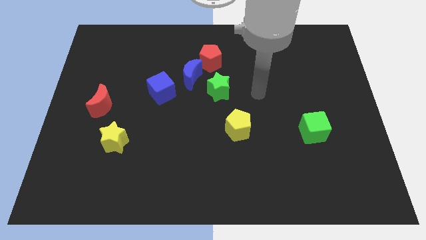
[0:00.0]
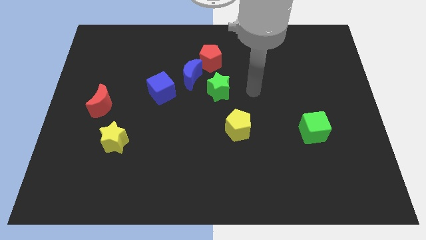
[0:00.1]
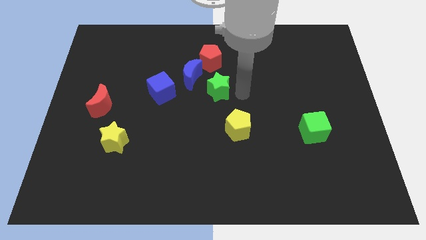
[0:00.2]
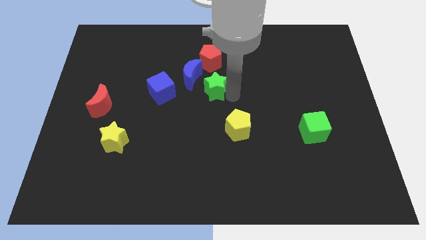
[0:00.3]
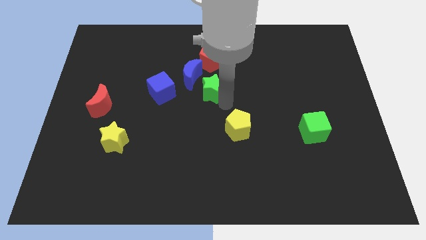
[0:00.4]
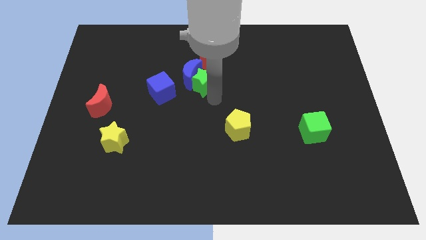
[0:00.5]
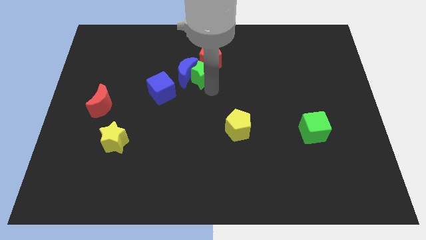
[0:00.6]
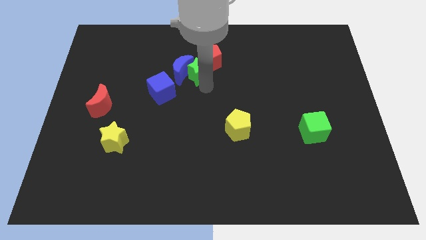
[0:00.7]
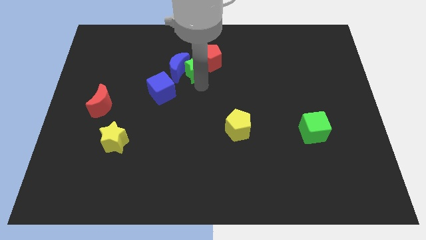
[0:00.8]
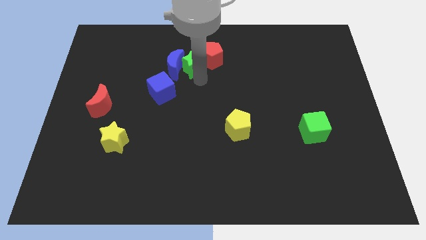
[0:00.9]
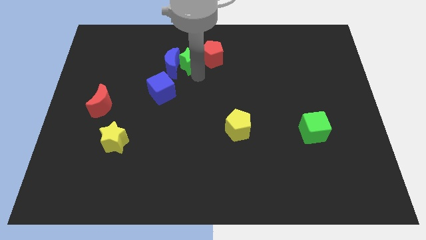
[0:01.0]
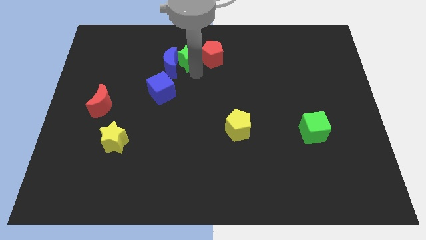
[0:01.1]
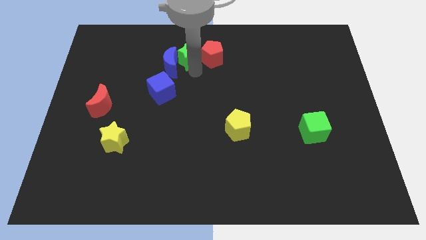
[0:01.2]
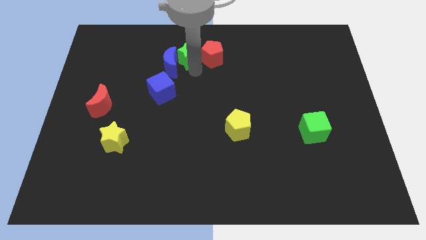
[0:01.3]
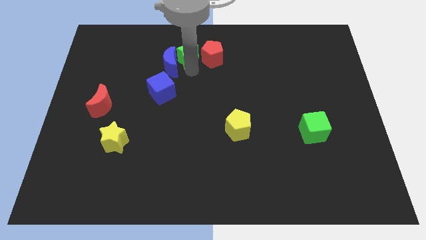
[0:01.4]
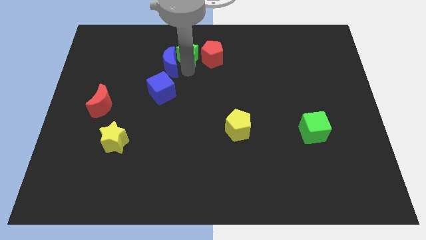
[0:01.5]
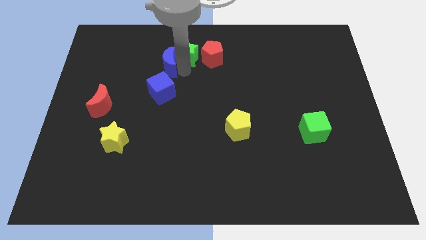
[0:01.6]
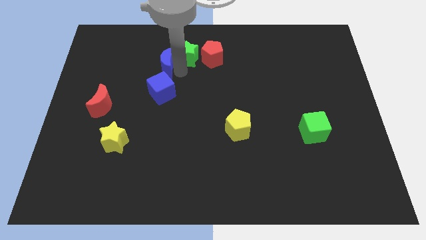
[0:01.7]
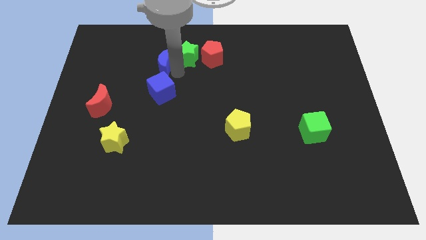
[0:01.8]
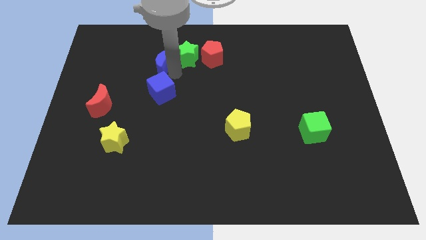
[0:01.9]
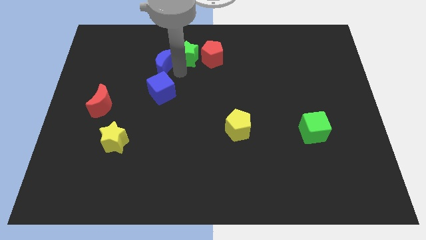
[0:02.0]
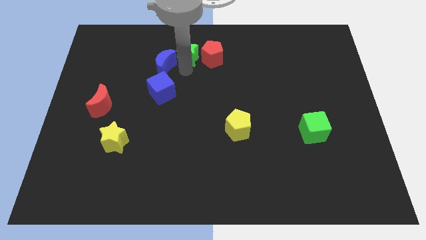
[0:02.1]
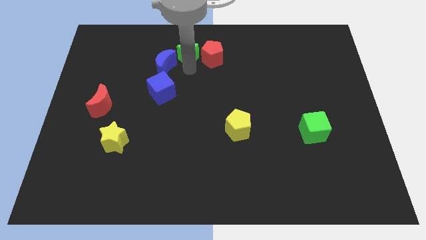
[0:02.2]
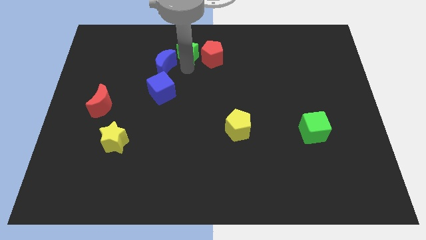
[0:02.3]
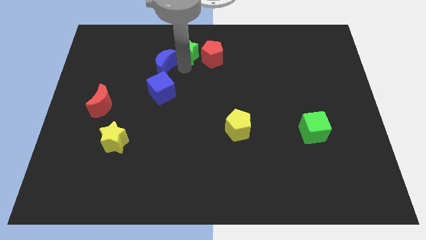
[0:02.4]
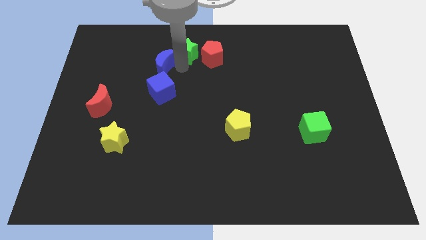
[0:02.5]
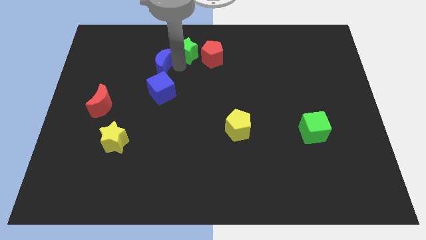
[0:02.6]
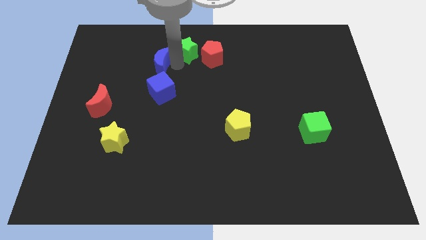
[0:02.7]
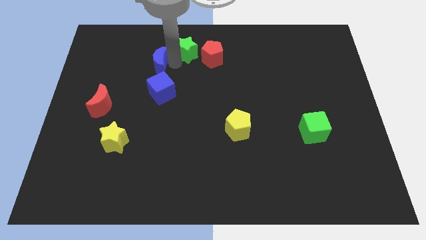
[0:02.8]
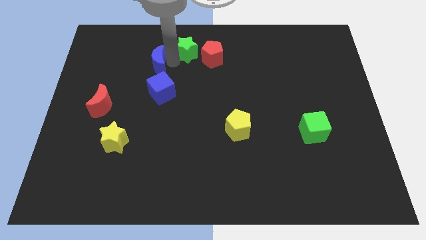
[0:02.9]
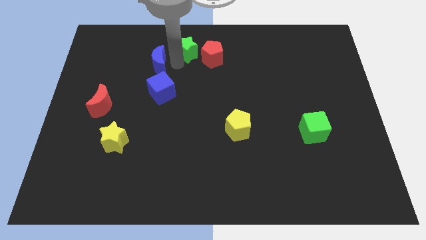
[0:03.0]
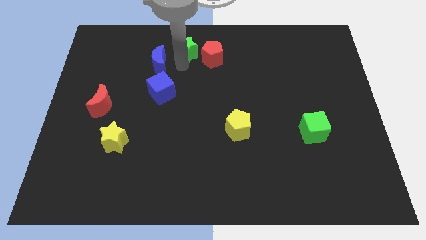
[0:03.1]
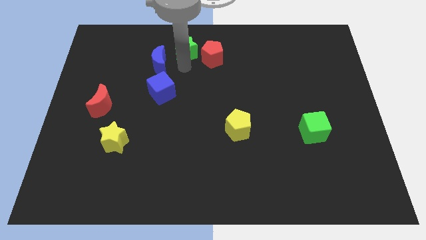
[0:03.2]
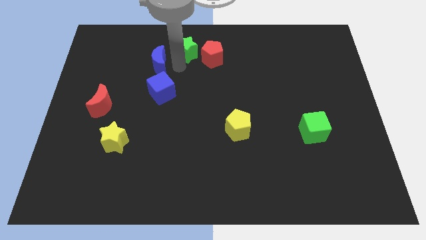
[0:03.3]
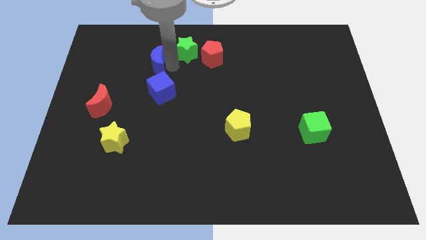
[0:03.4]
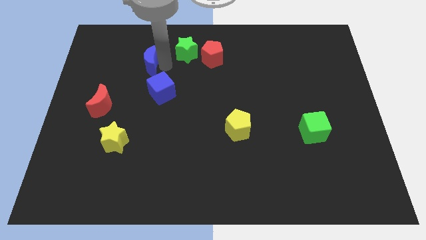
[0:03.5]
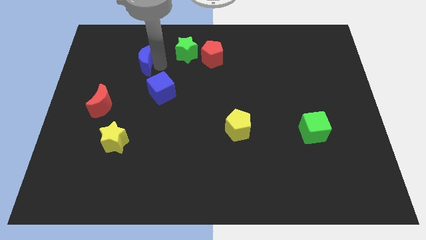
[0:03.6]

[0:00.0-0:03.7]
move the blue moon away from the group

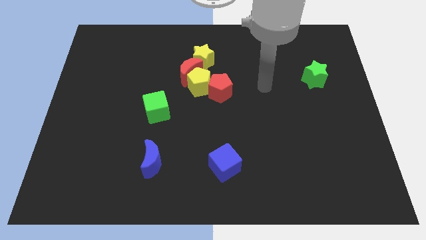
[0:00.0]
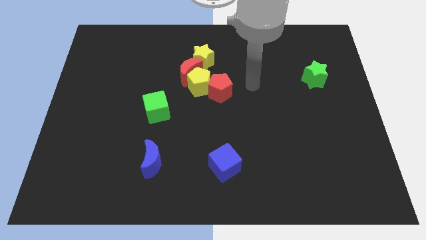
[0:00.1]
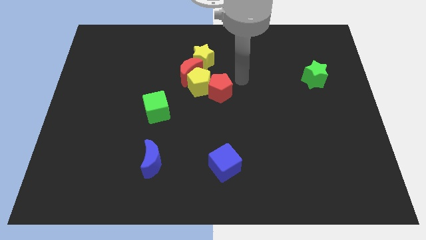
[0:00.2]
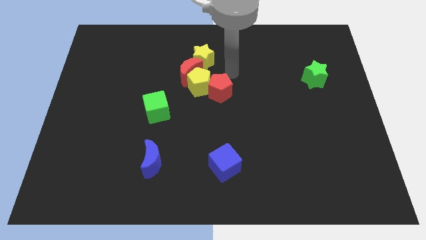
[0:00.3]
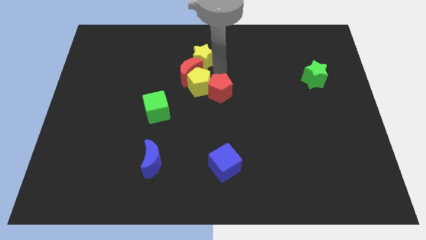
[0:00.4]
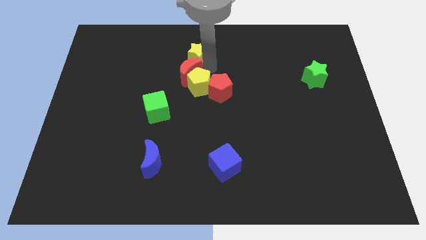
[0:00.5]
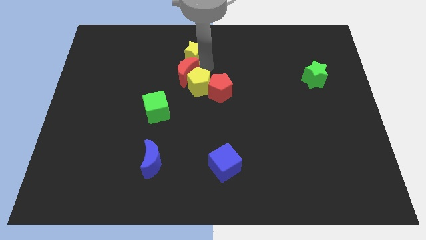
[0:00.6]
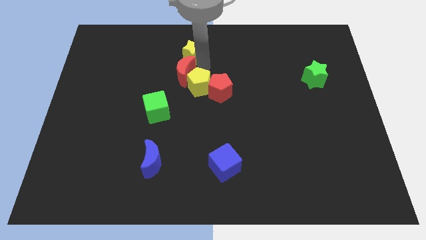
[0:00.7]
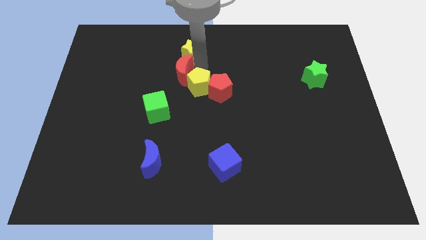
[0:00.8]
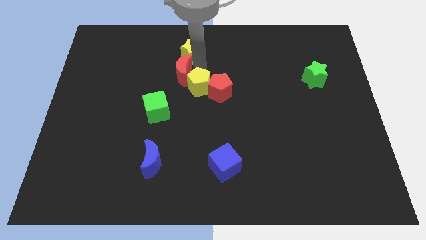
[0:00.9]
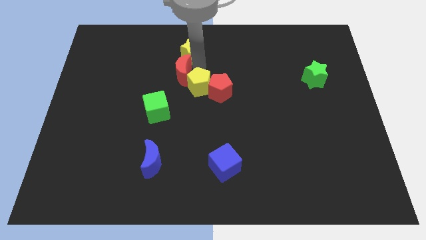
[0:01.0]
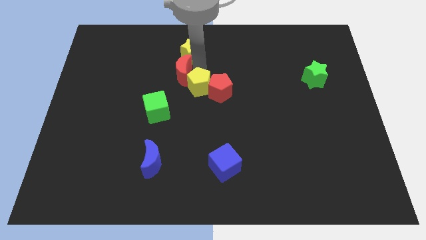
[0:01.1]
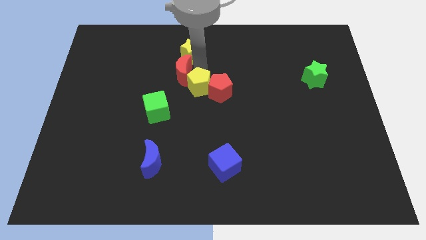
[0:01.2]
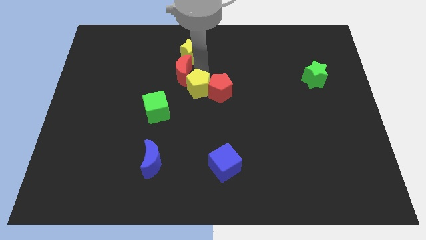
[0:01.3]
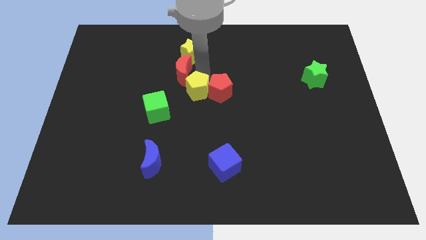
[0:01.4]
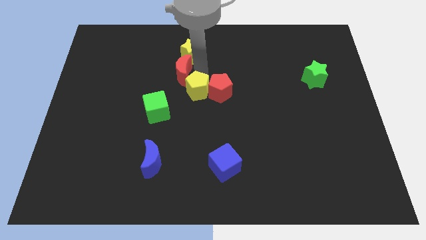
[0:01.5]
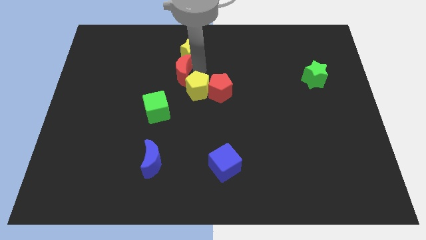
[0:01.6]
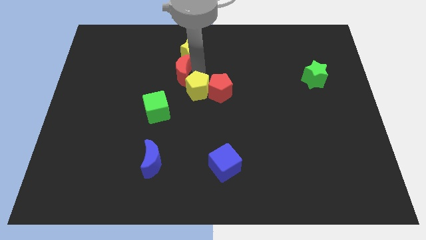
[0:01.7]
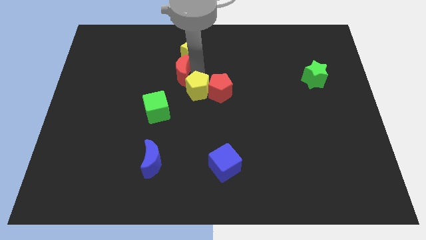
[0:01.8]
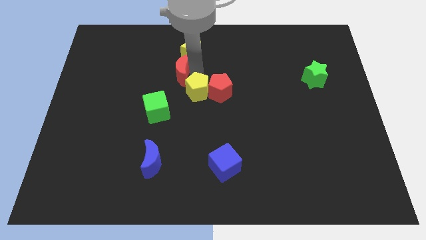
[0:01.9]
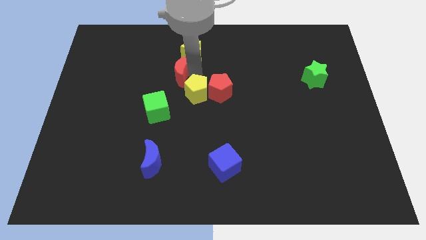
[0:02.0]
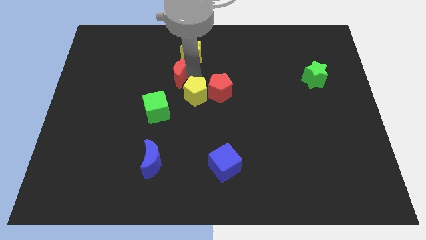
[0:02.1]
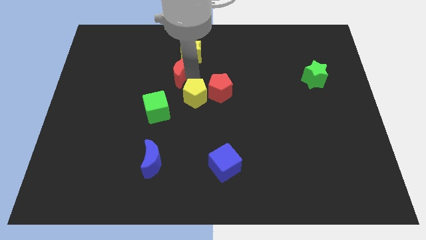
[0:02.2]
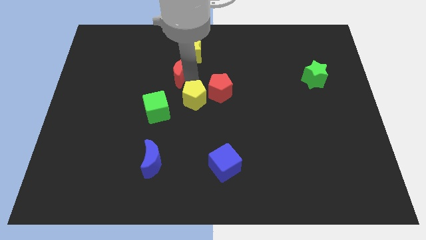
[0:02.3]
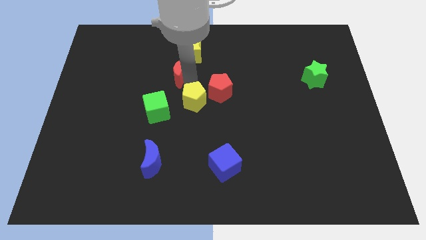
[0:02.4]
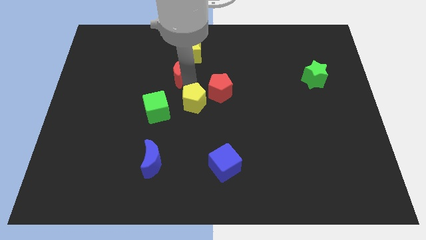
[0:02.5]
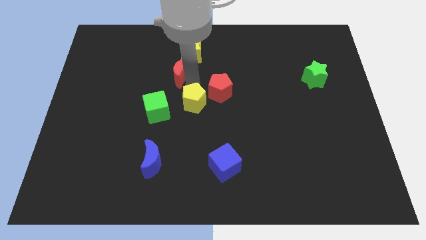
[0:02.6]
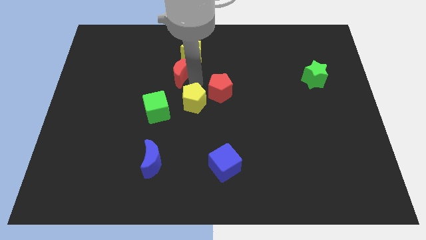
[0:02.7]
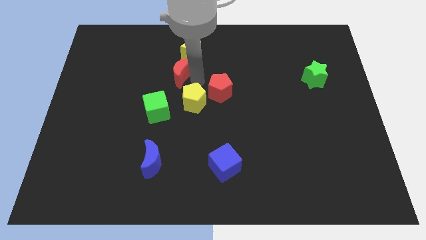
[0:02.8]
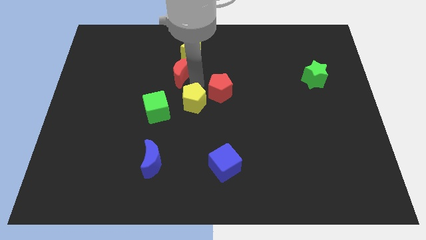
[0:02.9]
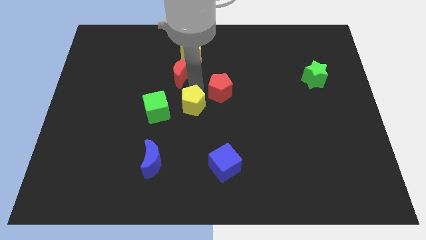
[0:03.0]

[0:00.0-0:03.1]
separate the yellow pentagon from the group

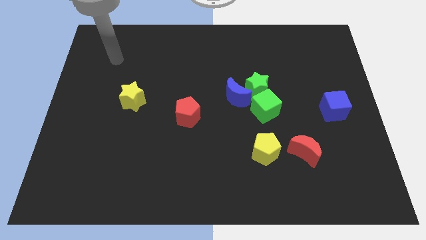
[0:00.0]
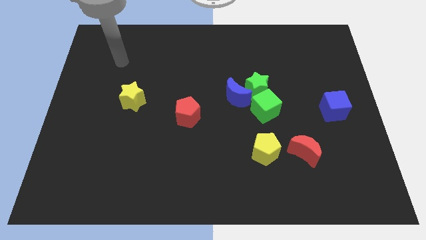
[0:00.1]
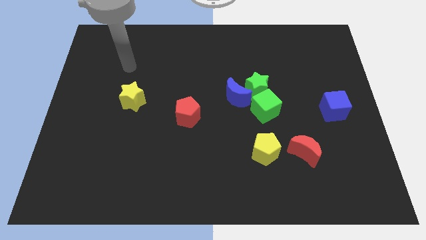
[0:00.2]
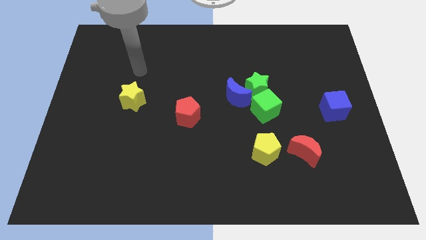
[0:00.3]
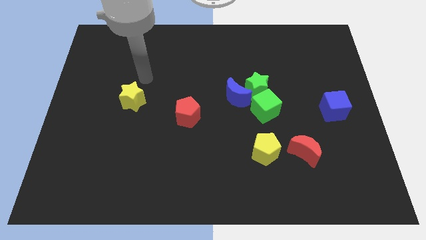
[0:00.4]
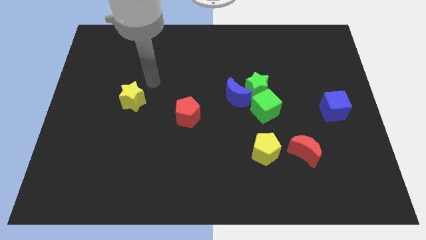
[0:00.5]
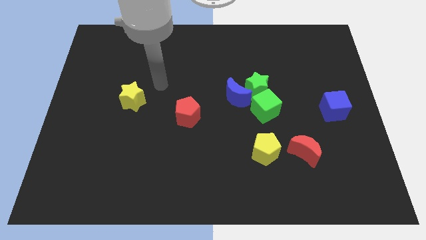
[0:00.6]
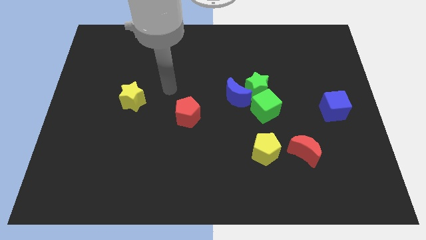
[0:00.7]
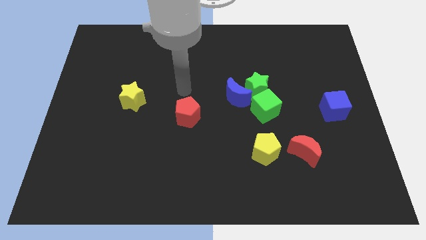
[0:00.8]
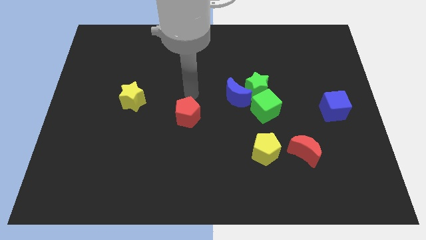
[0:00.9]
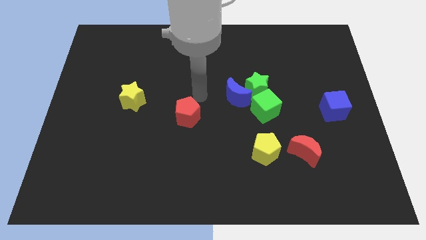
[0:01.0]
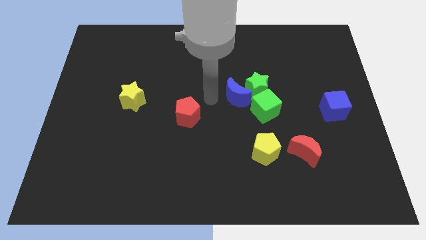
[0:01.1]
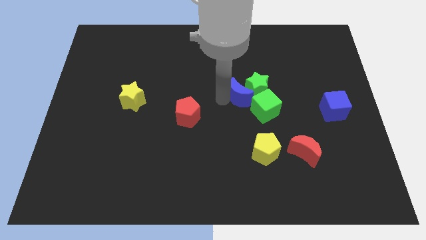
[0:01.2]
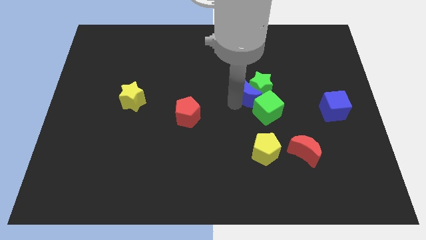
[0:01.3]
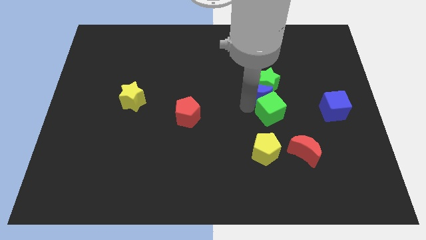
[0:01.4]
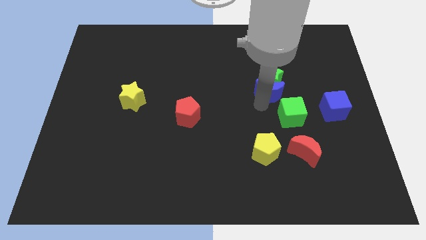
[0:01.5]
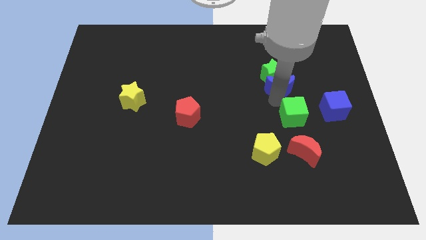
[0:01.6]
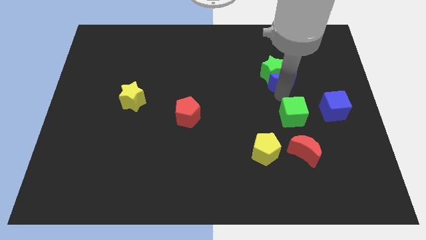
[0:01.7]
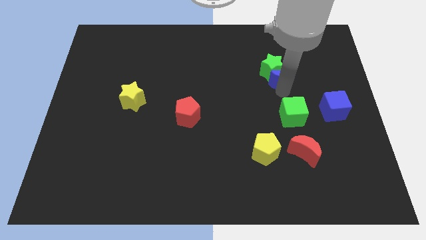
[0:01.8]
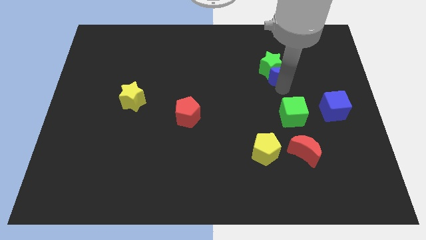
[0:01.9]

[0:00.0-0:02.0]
separate the green star from the blue moon and green cube

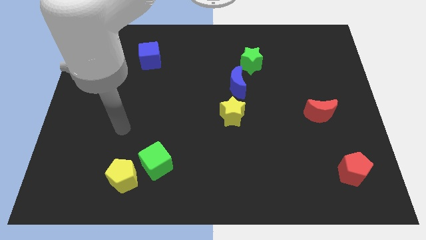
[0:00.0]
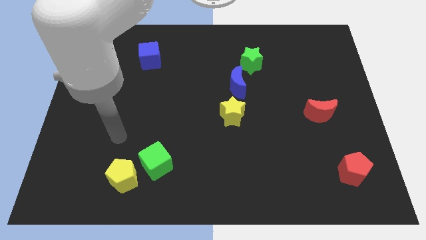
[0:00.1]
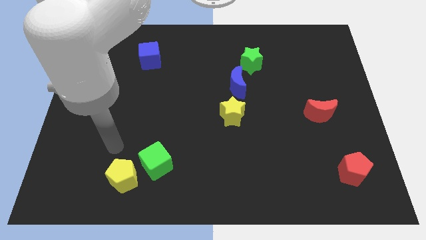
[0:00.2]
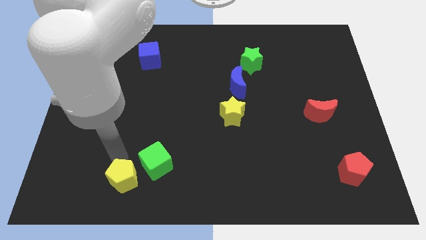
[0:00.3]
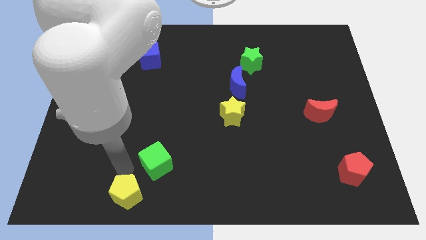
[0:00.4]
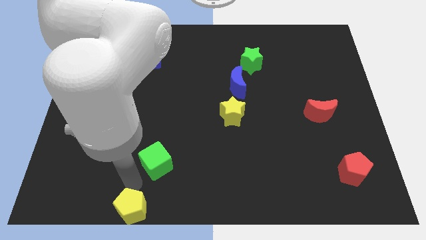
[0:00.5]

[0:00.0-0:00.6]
move the green cube away from the yellow pentagon
